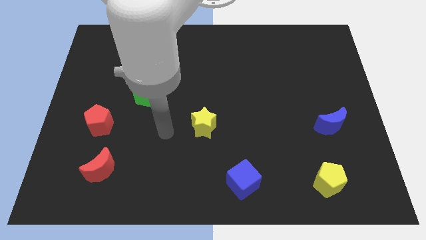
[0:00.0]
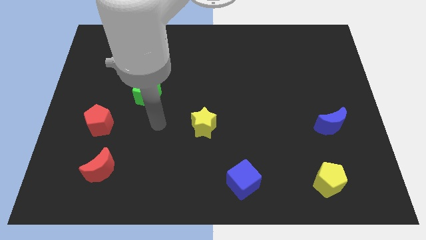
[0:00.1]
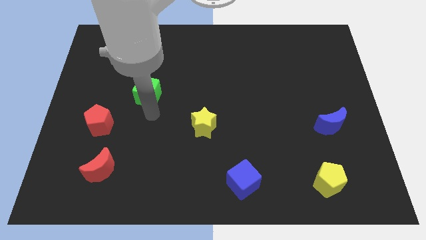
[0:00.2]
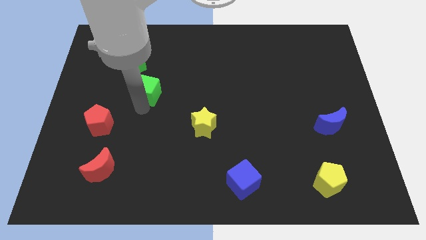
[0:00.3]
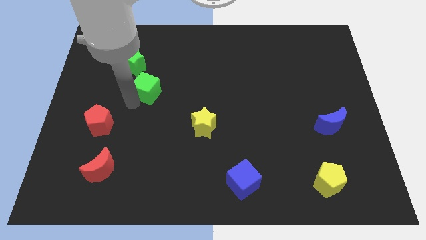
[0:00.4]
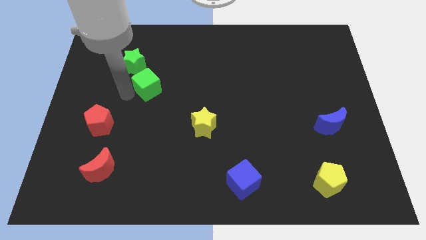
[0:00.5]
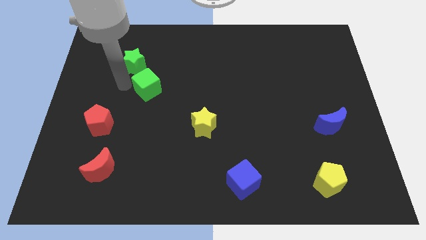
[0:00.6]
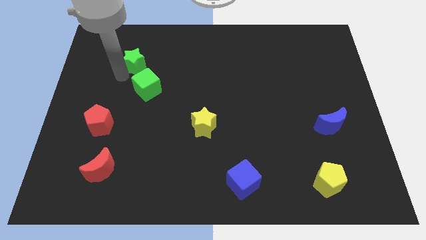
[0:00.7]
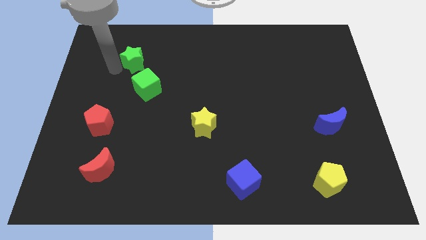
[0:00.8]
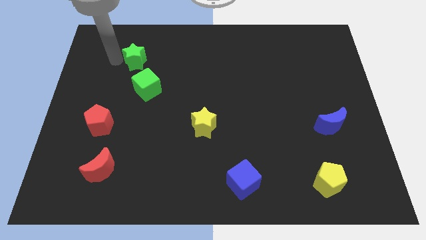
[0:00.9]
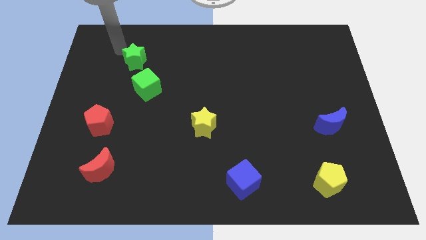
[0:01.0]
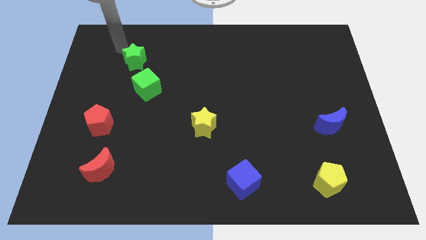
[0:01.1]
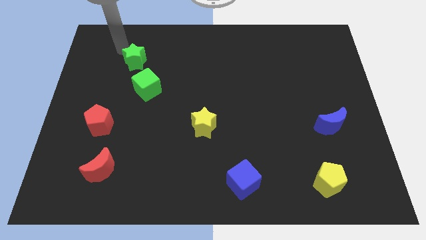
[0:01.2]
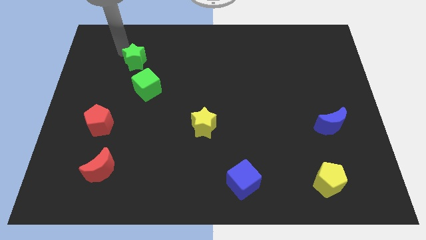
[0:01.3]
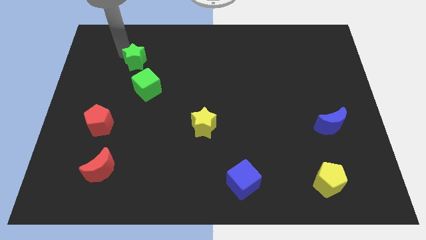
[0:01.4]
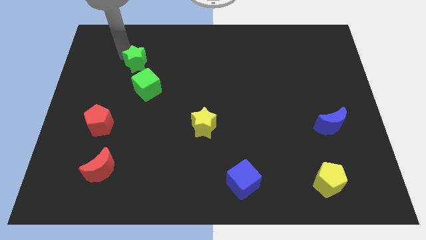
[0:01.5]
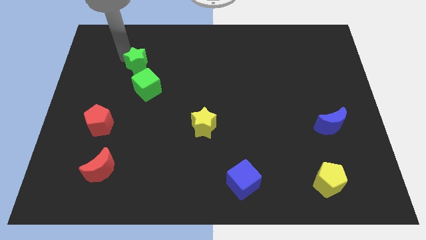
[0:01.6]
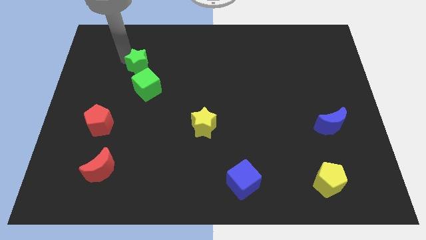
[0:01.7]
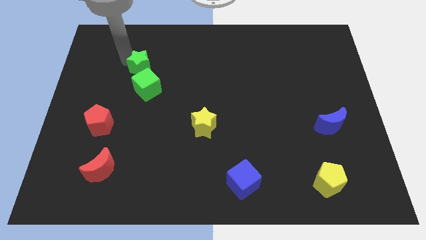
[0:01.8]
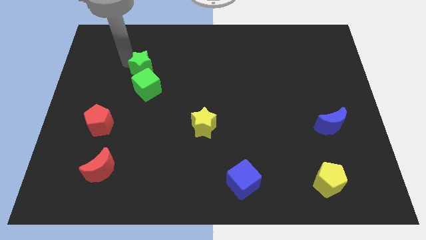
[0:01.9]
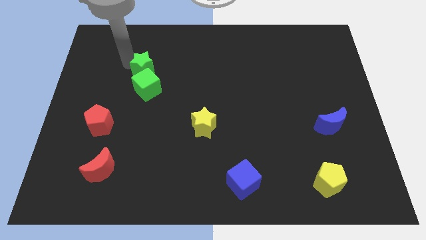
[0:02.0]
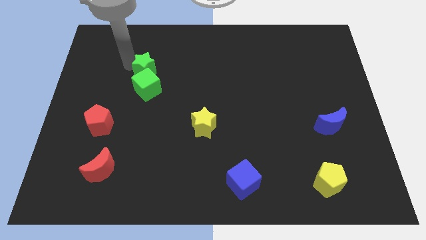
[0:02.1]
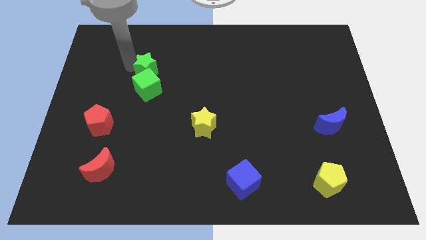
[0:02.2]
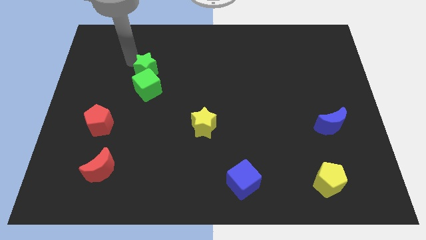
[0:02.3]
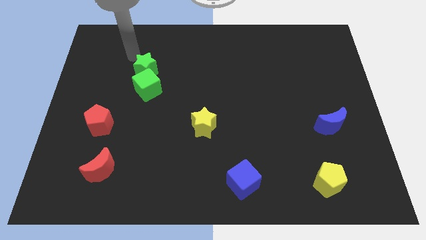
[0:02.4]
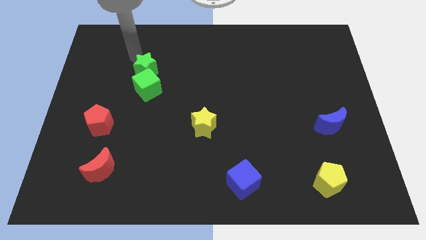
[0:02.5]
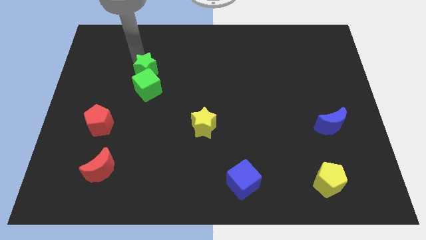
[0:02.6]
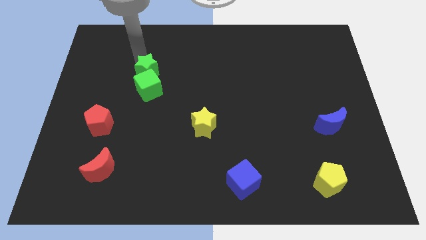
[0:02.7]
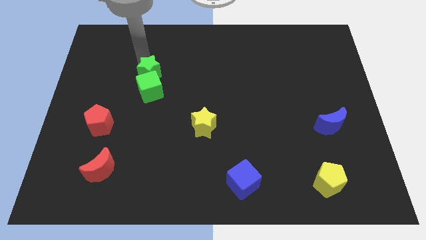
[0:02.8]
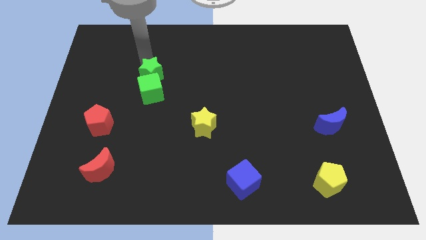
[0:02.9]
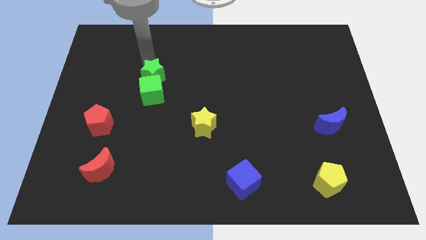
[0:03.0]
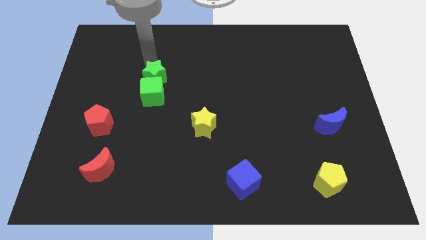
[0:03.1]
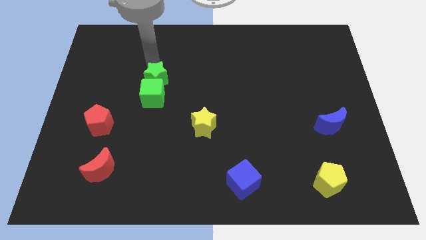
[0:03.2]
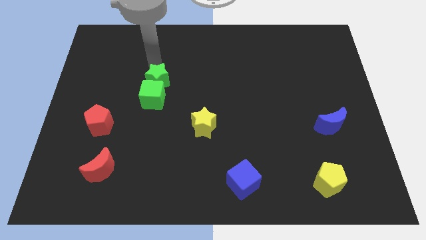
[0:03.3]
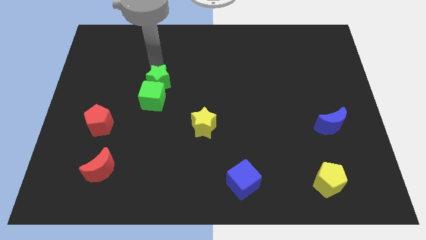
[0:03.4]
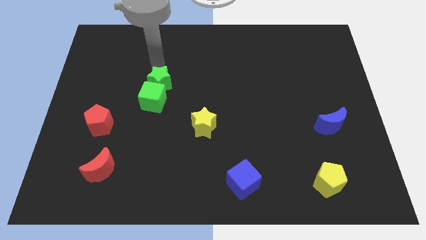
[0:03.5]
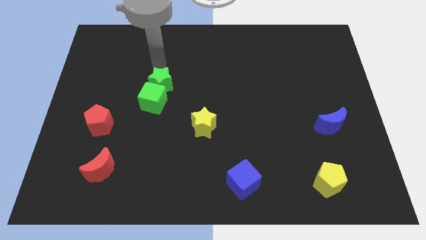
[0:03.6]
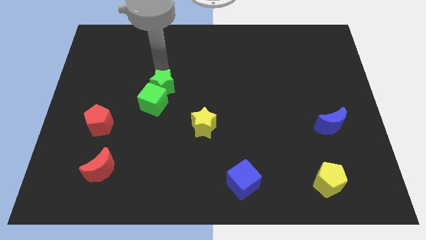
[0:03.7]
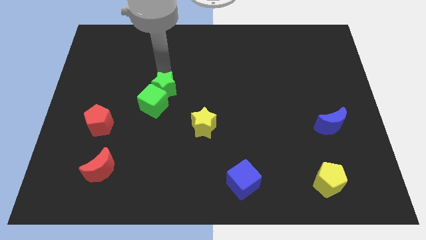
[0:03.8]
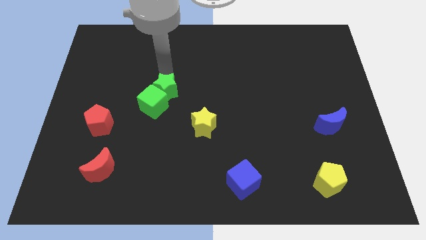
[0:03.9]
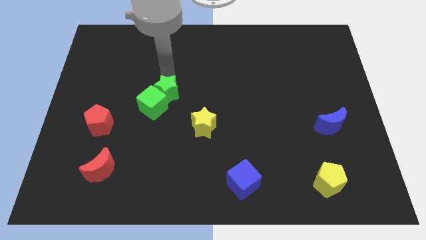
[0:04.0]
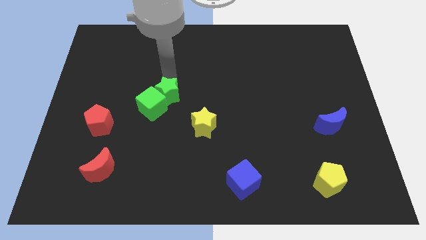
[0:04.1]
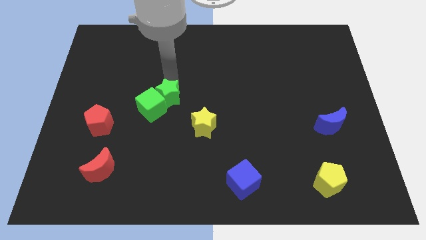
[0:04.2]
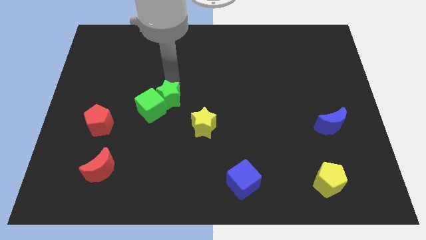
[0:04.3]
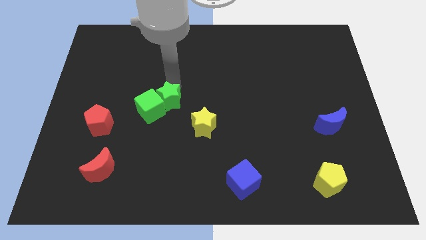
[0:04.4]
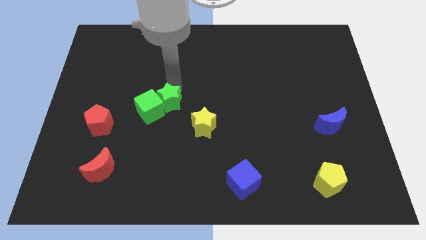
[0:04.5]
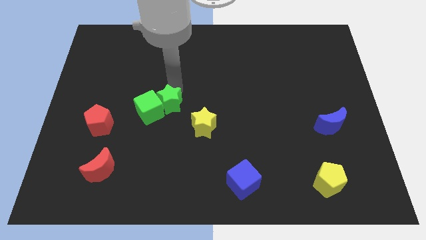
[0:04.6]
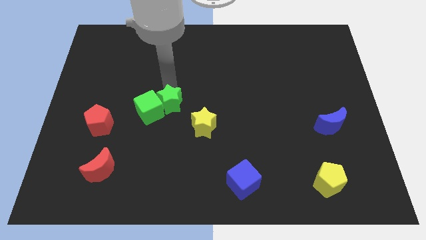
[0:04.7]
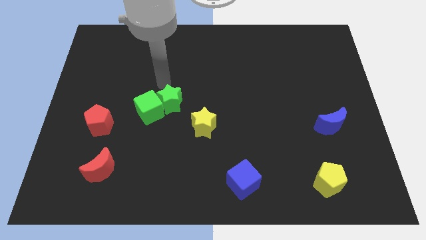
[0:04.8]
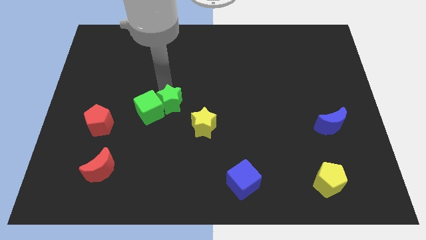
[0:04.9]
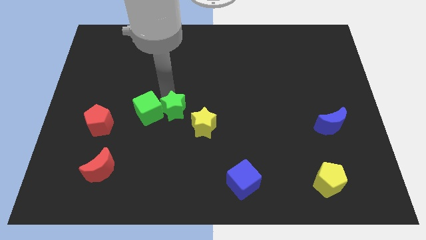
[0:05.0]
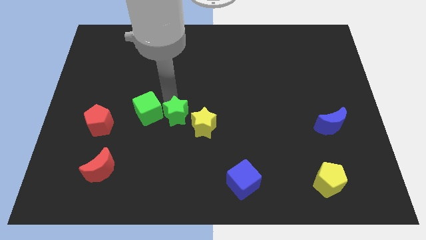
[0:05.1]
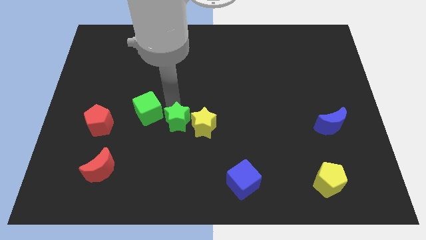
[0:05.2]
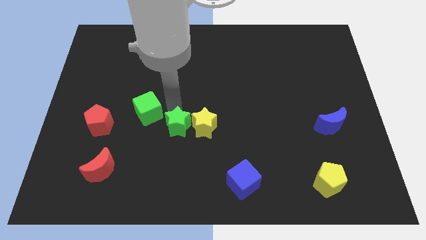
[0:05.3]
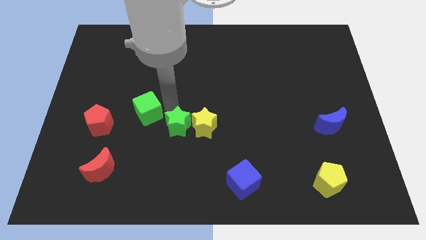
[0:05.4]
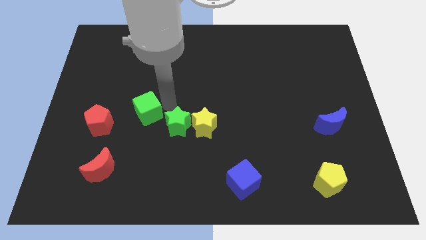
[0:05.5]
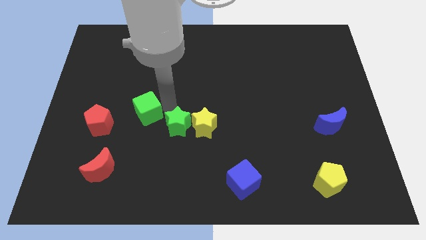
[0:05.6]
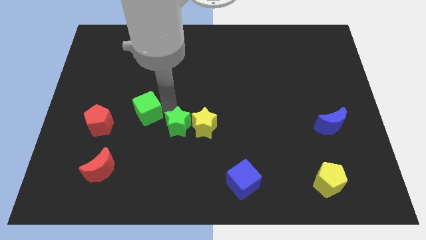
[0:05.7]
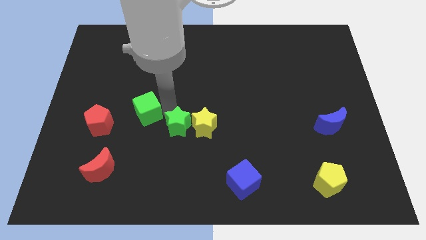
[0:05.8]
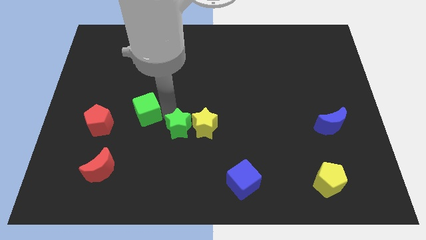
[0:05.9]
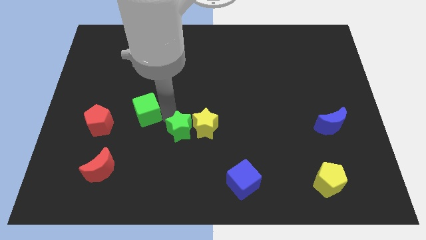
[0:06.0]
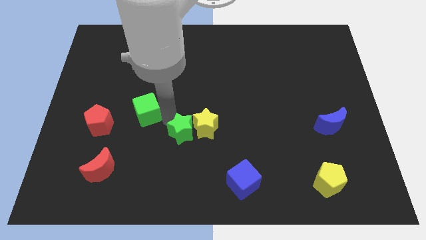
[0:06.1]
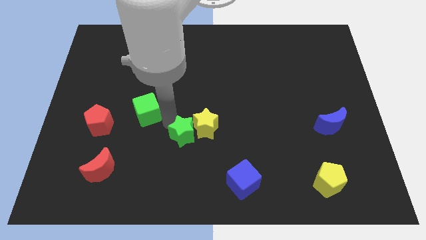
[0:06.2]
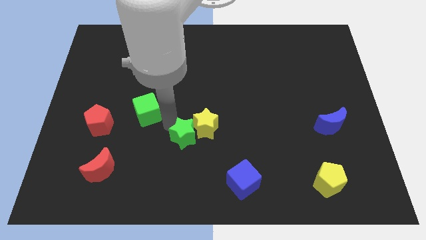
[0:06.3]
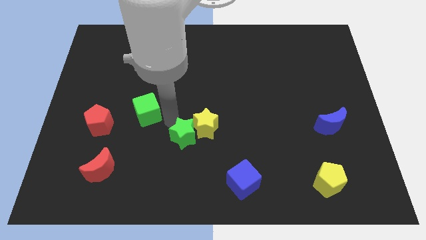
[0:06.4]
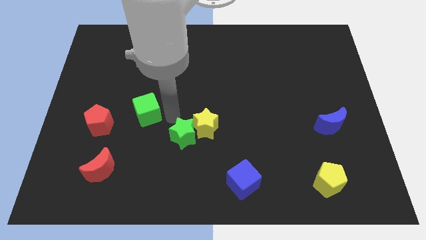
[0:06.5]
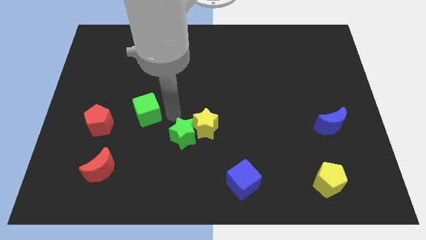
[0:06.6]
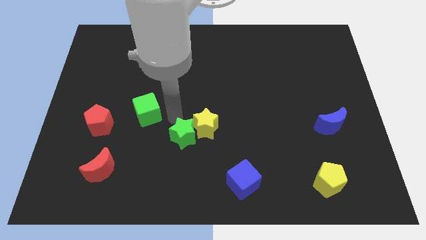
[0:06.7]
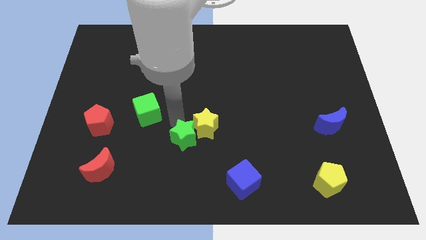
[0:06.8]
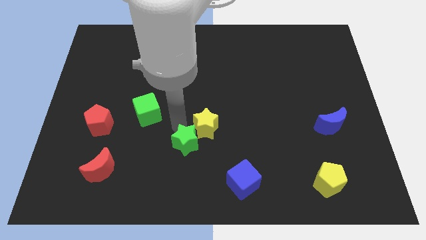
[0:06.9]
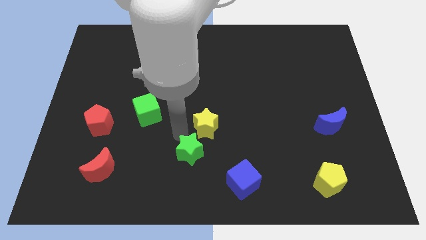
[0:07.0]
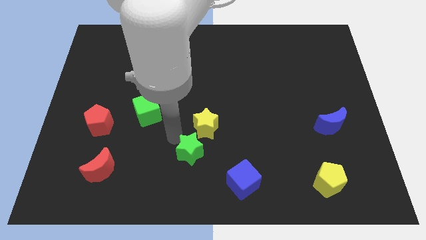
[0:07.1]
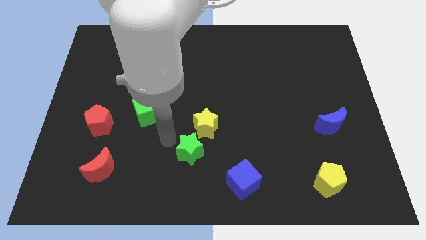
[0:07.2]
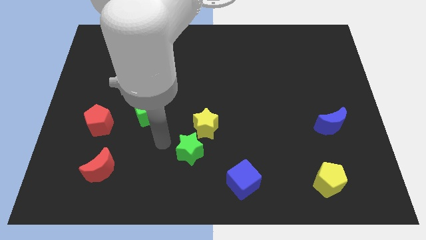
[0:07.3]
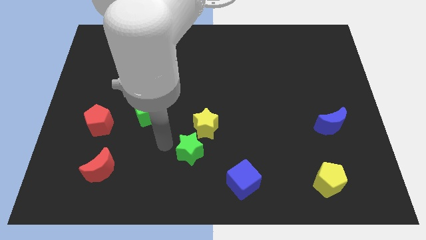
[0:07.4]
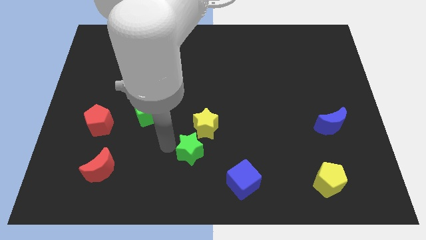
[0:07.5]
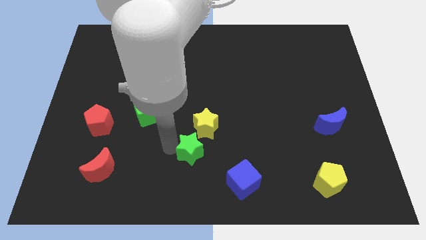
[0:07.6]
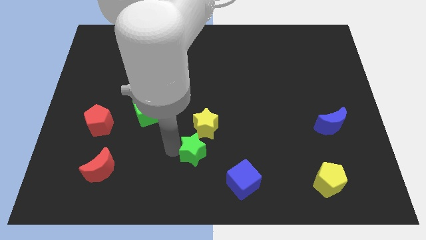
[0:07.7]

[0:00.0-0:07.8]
move the green star to the top left of the blue cube
